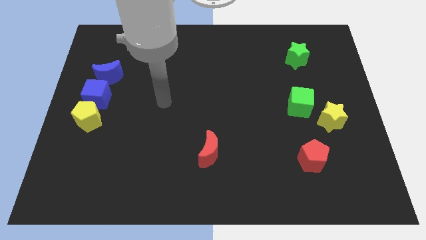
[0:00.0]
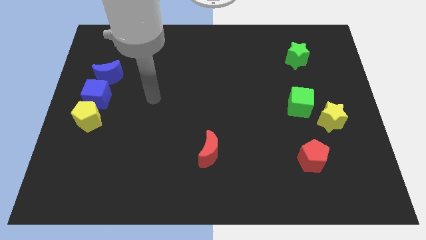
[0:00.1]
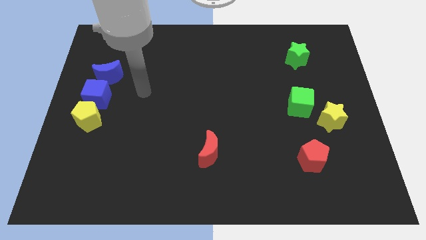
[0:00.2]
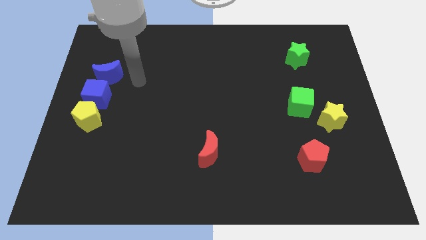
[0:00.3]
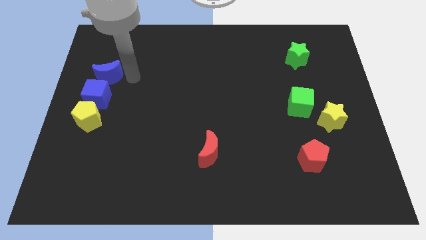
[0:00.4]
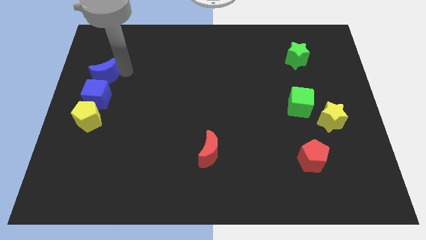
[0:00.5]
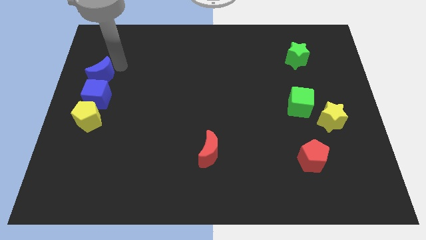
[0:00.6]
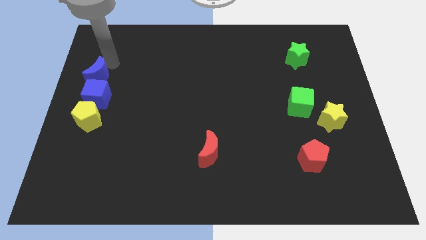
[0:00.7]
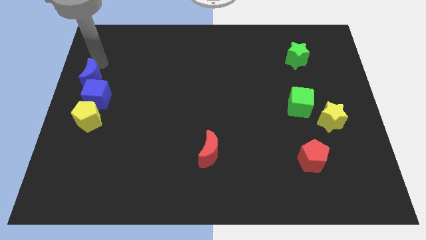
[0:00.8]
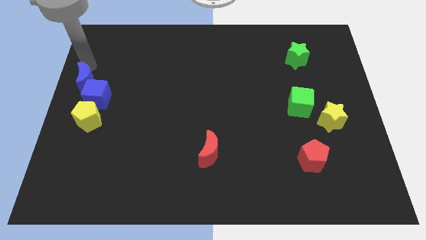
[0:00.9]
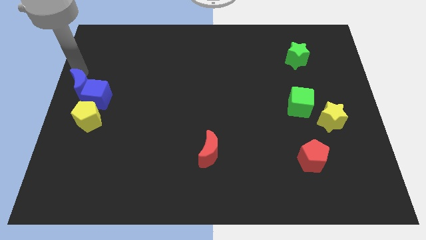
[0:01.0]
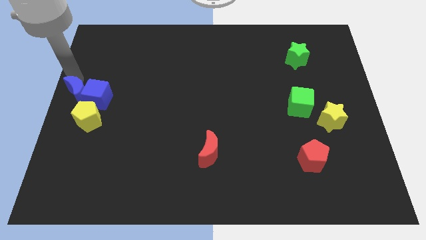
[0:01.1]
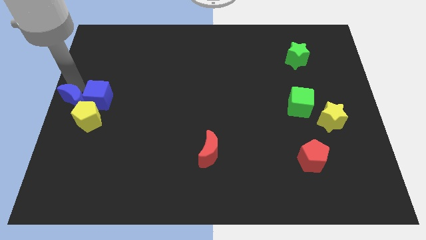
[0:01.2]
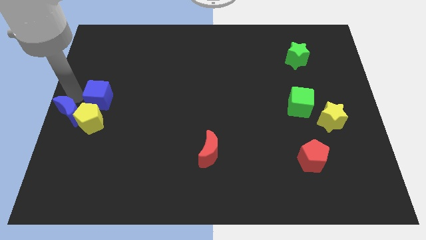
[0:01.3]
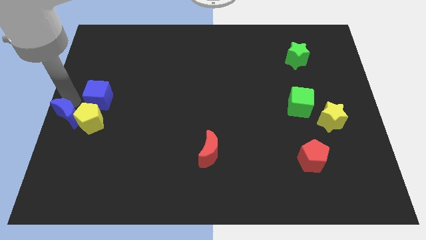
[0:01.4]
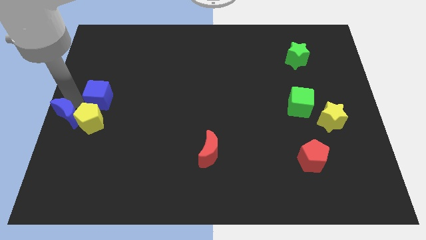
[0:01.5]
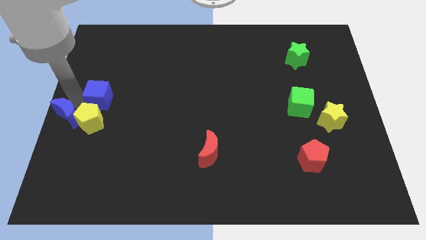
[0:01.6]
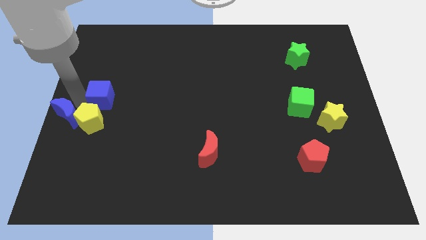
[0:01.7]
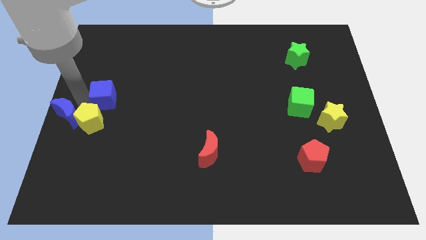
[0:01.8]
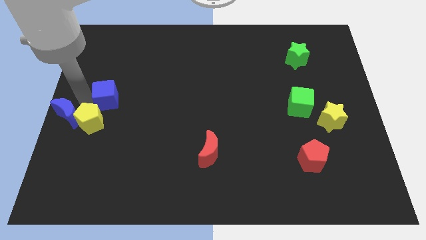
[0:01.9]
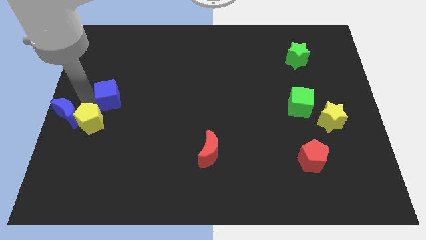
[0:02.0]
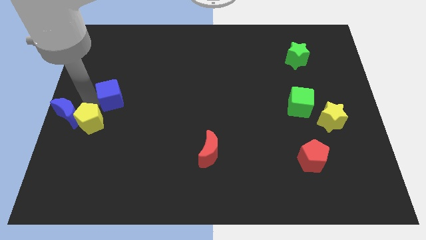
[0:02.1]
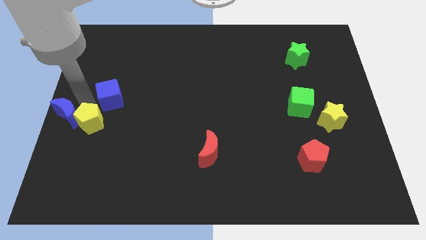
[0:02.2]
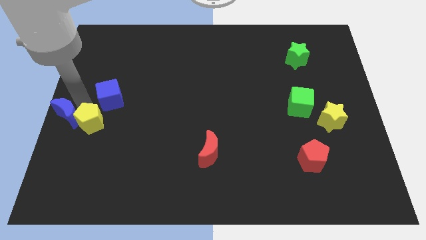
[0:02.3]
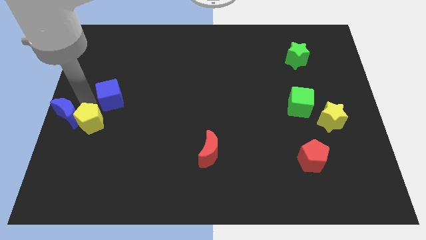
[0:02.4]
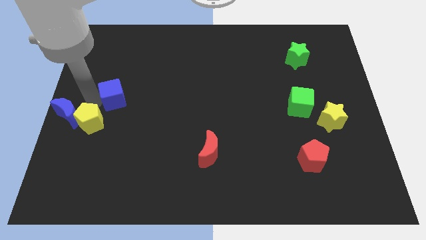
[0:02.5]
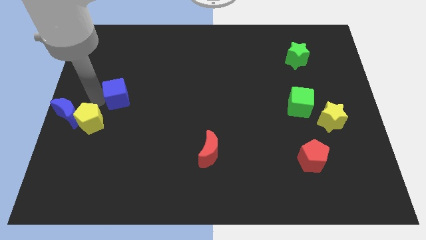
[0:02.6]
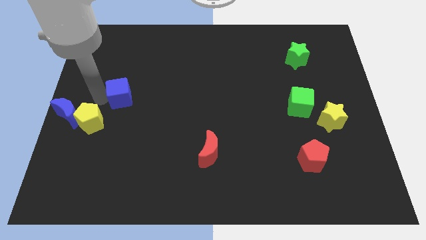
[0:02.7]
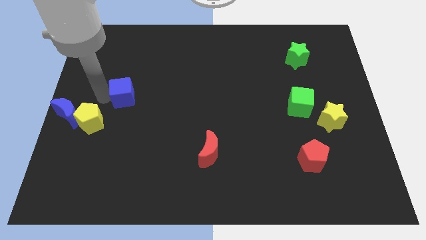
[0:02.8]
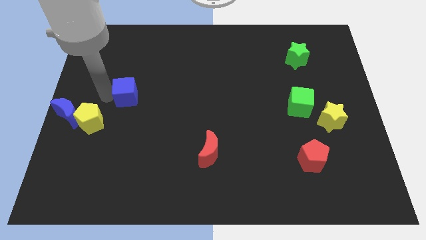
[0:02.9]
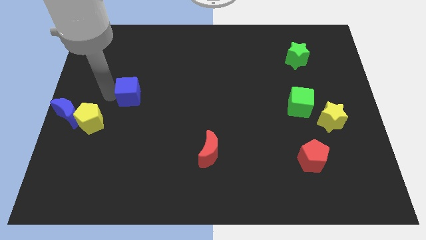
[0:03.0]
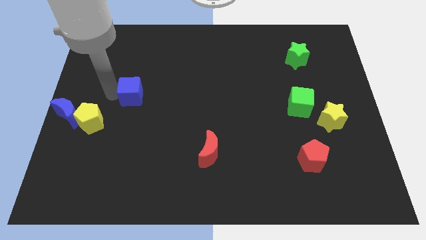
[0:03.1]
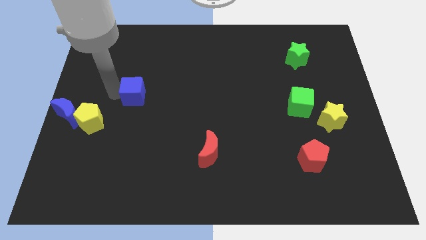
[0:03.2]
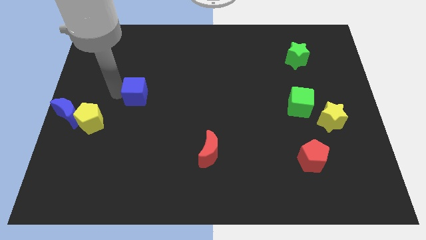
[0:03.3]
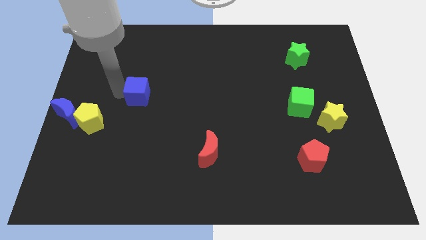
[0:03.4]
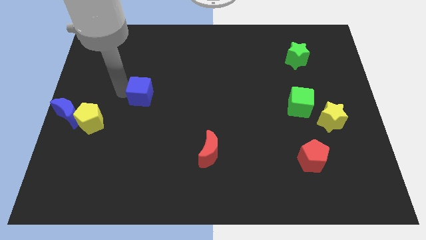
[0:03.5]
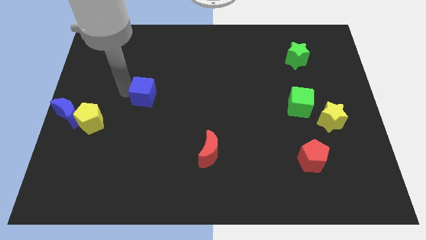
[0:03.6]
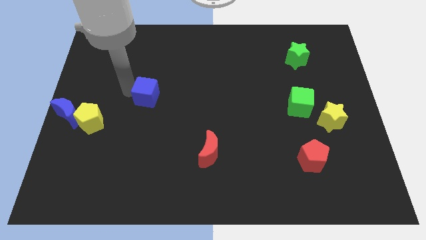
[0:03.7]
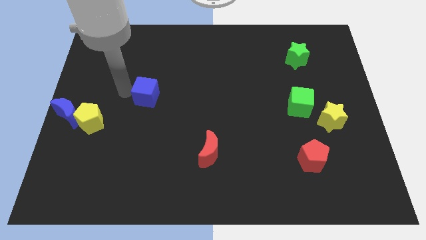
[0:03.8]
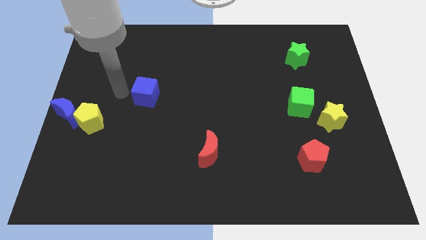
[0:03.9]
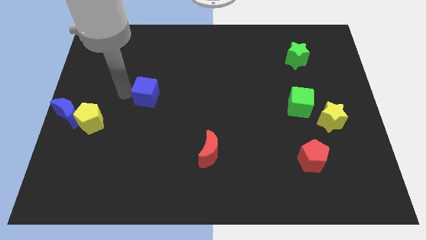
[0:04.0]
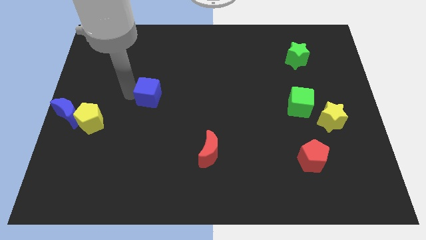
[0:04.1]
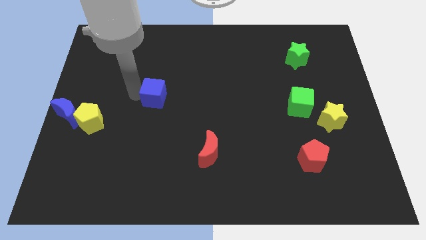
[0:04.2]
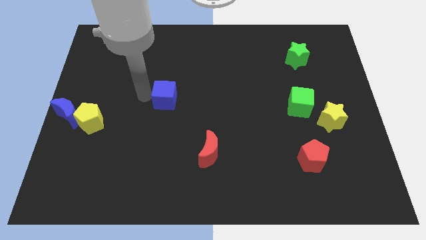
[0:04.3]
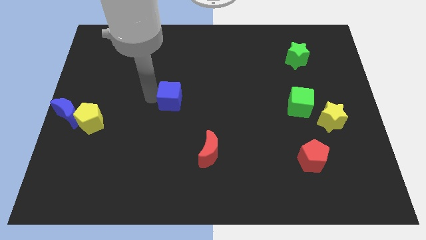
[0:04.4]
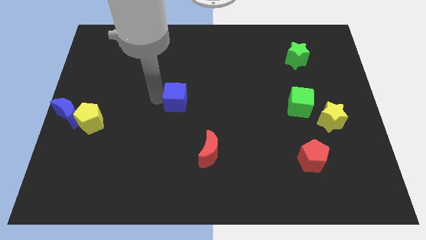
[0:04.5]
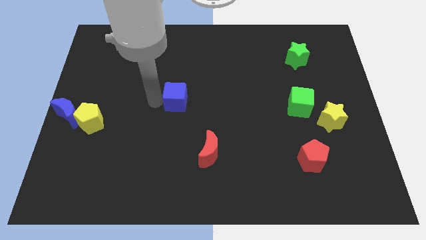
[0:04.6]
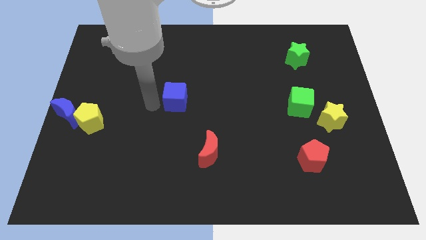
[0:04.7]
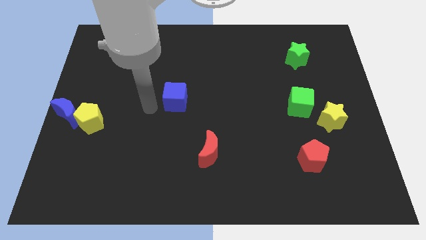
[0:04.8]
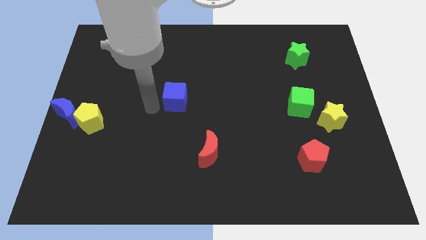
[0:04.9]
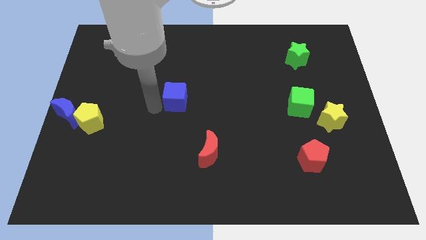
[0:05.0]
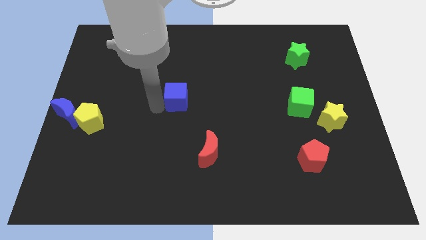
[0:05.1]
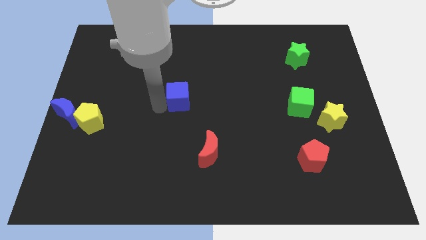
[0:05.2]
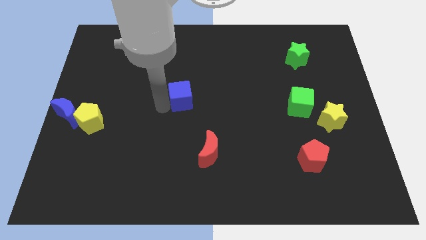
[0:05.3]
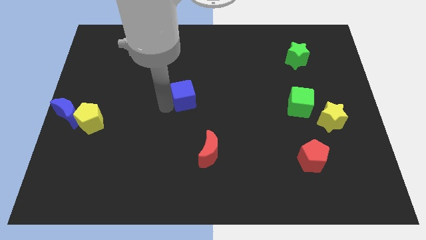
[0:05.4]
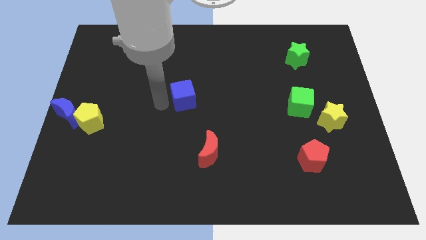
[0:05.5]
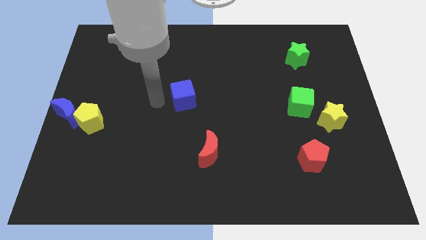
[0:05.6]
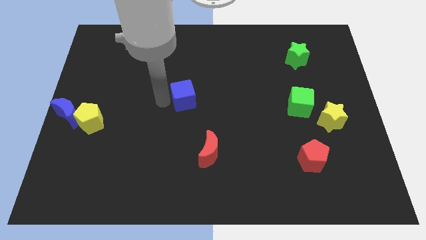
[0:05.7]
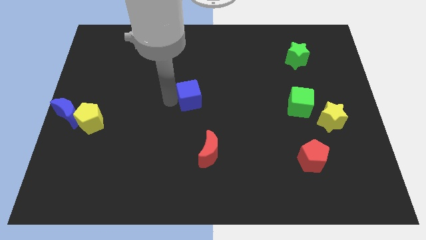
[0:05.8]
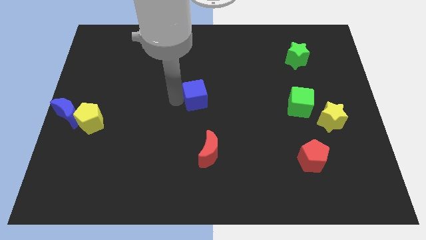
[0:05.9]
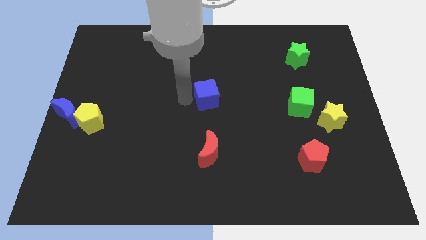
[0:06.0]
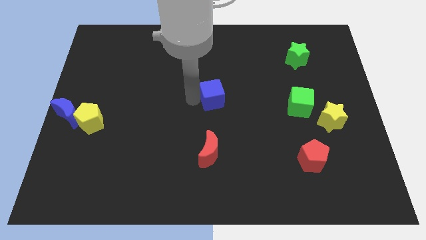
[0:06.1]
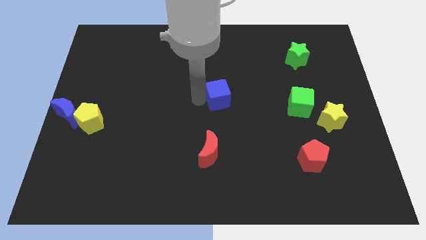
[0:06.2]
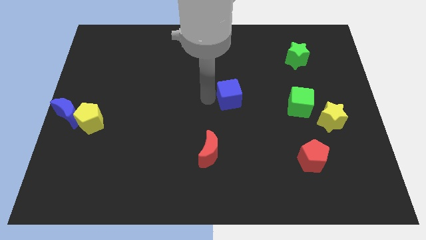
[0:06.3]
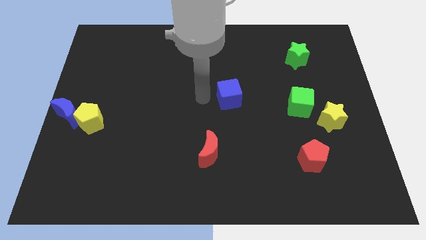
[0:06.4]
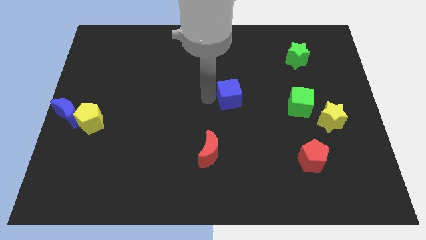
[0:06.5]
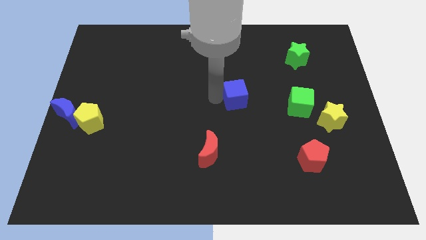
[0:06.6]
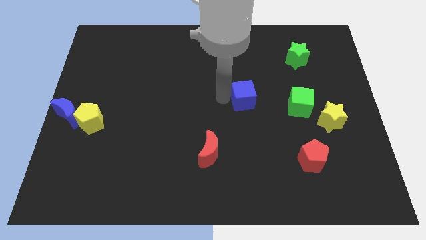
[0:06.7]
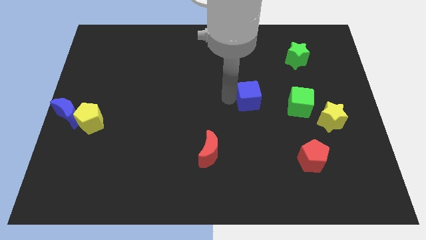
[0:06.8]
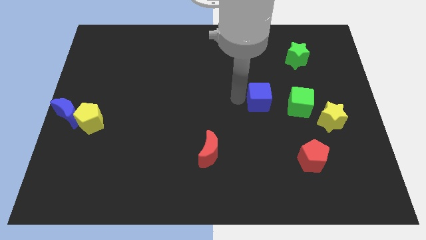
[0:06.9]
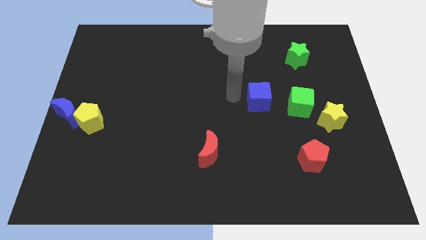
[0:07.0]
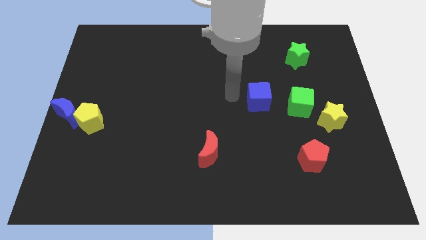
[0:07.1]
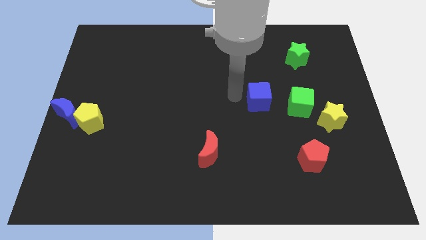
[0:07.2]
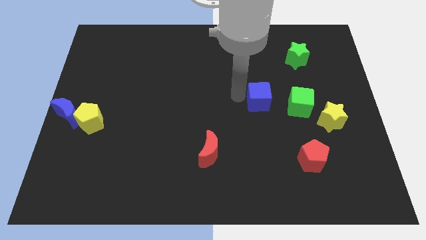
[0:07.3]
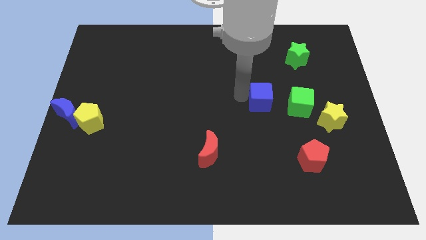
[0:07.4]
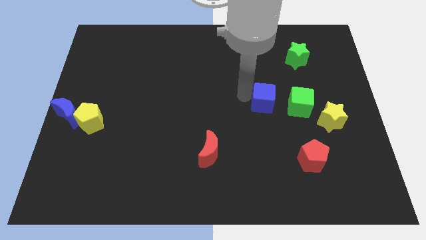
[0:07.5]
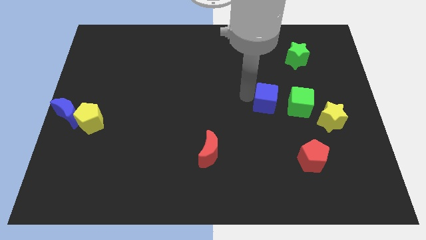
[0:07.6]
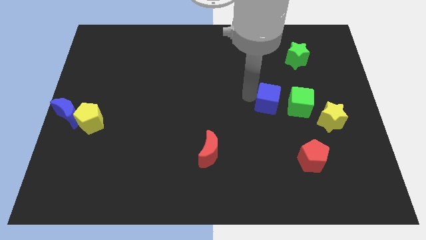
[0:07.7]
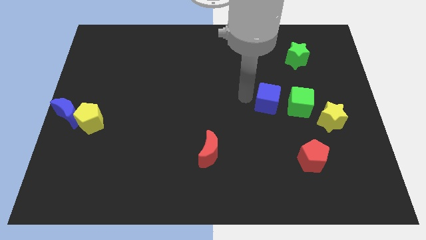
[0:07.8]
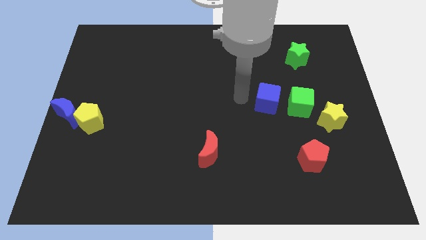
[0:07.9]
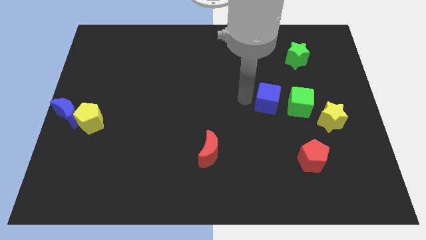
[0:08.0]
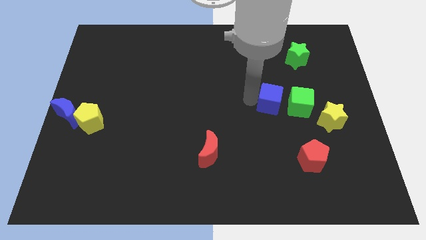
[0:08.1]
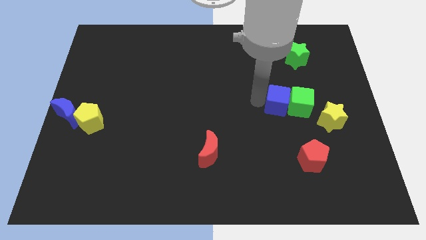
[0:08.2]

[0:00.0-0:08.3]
push the blue cube towards the green cube
